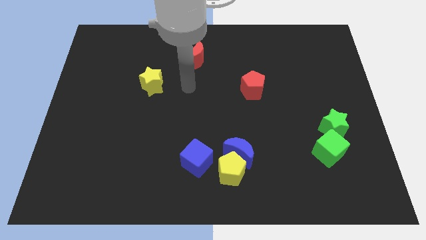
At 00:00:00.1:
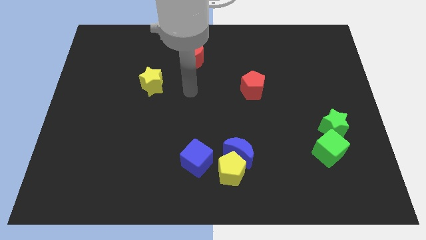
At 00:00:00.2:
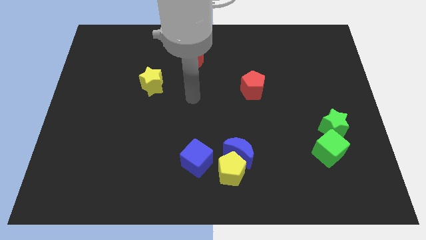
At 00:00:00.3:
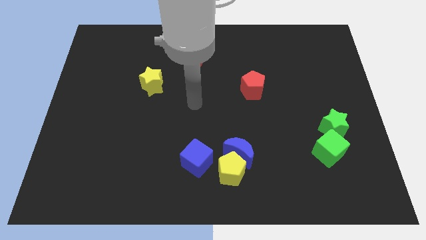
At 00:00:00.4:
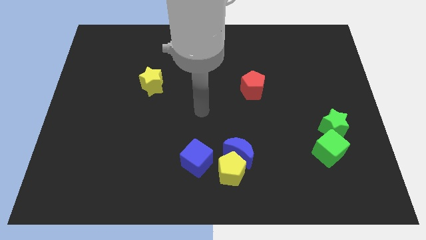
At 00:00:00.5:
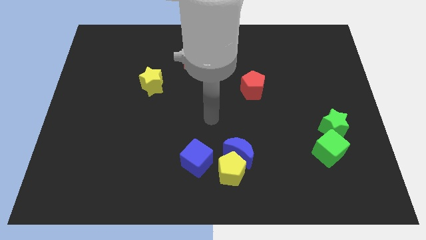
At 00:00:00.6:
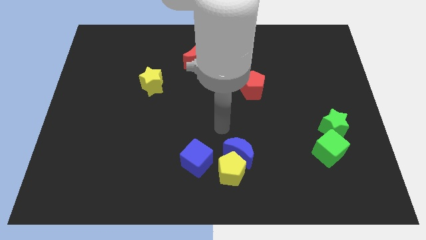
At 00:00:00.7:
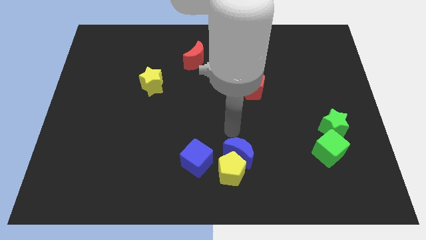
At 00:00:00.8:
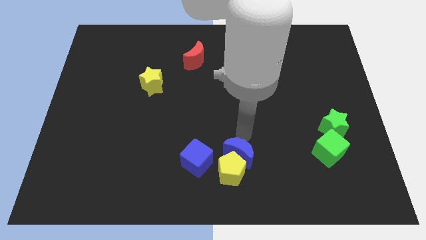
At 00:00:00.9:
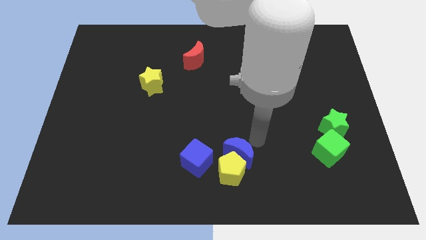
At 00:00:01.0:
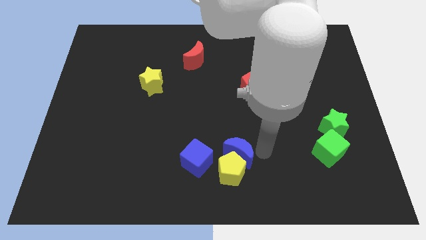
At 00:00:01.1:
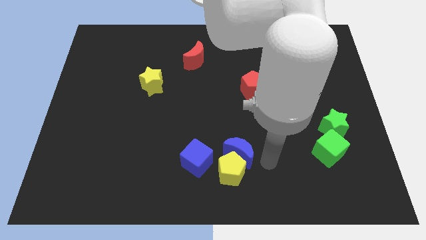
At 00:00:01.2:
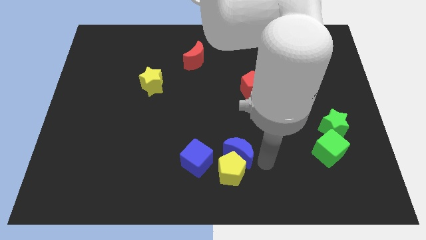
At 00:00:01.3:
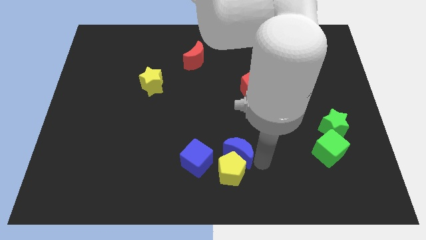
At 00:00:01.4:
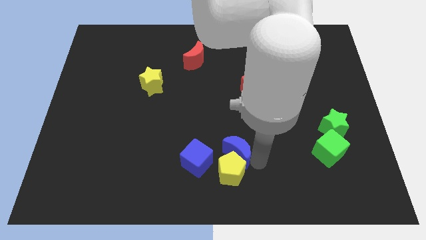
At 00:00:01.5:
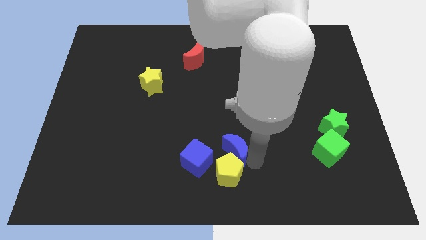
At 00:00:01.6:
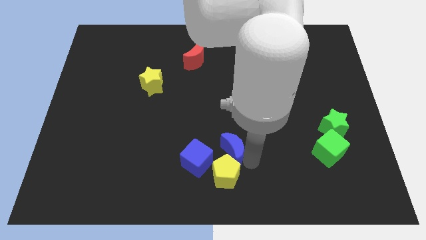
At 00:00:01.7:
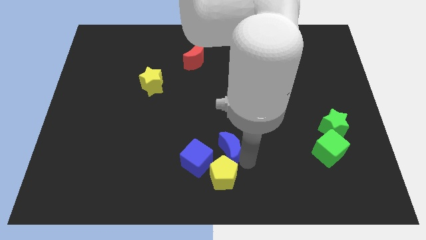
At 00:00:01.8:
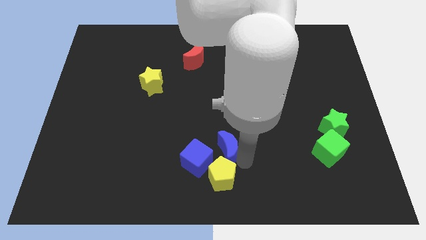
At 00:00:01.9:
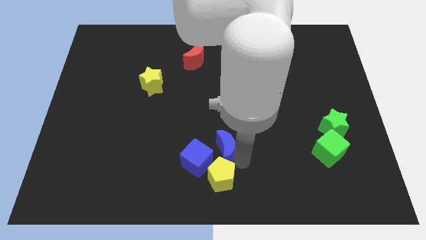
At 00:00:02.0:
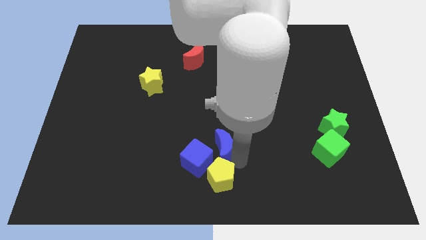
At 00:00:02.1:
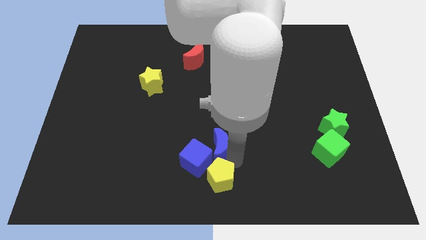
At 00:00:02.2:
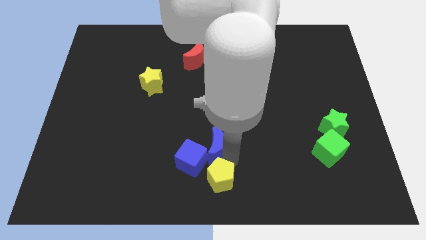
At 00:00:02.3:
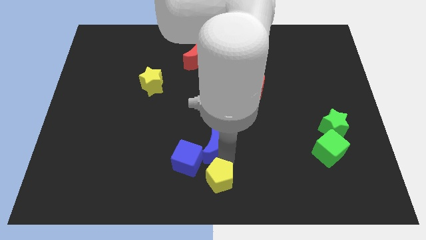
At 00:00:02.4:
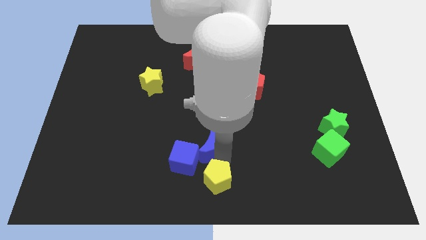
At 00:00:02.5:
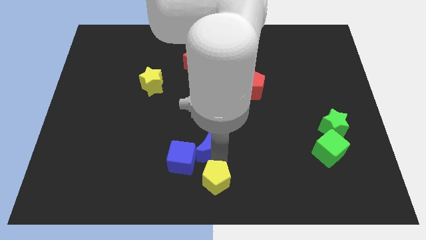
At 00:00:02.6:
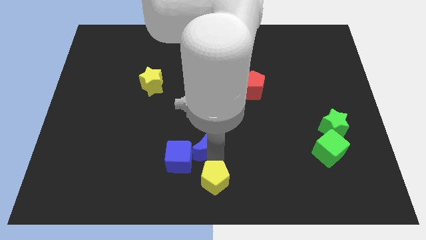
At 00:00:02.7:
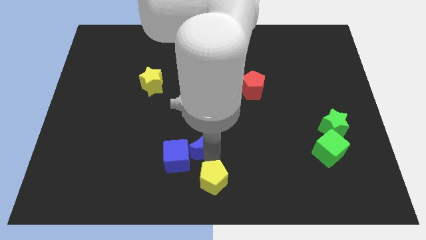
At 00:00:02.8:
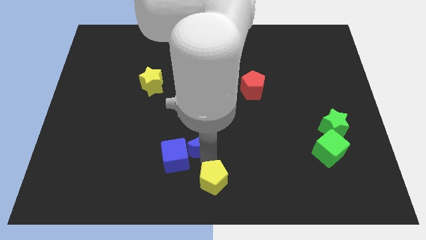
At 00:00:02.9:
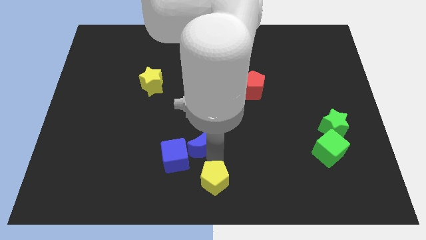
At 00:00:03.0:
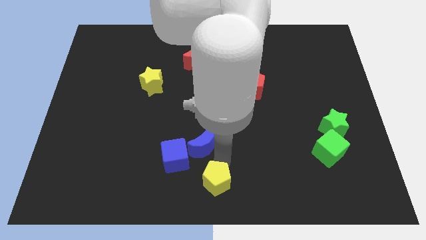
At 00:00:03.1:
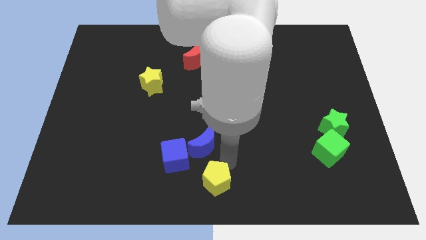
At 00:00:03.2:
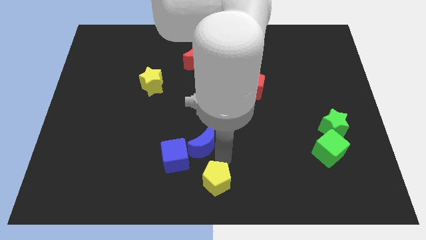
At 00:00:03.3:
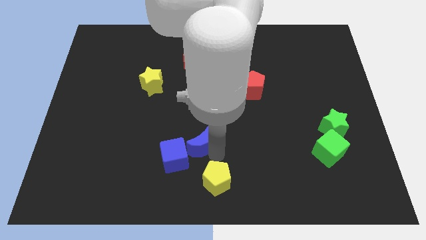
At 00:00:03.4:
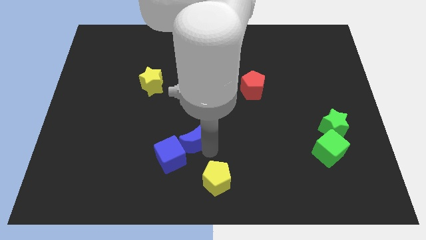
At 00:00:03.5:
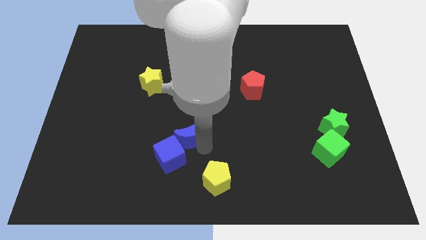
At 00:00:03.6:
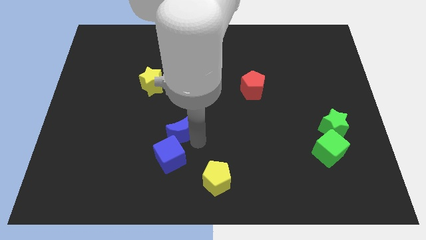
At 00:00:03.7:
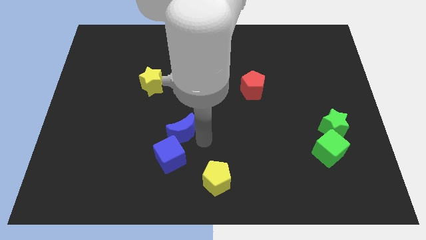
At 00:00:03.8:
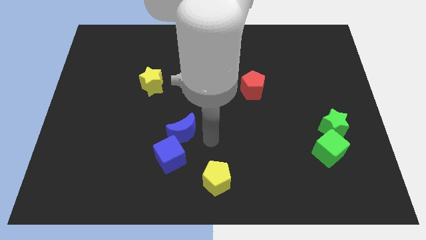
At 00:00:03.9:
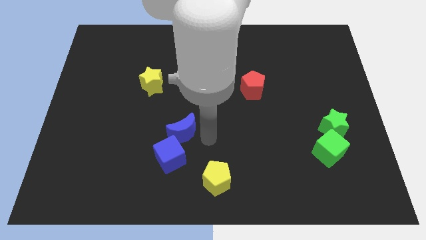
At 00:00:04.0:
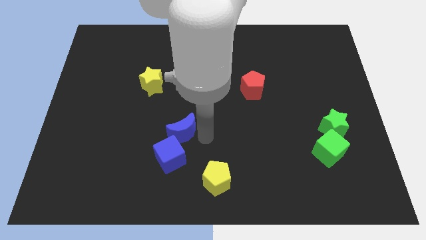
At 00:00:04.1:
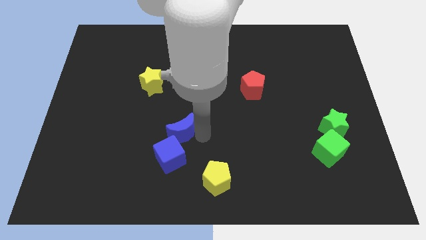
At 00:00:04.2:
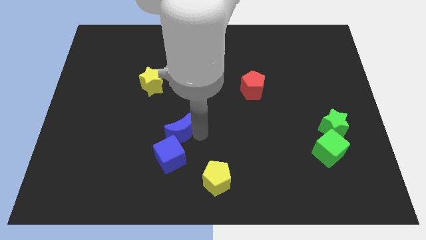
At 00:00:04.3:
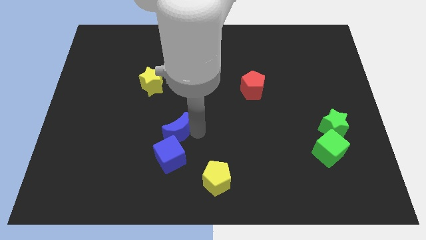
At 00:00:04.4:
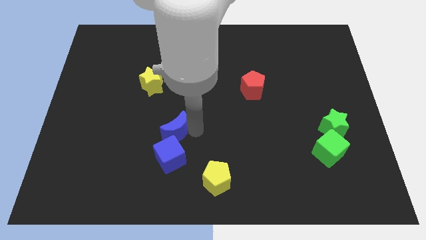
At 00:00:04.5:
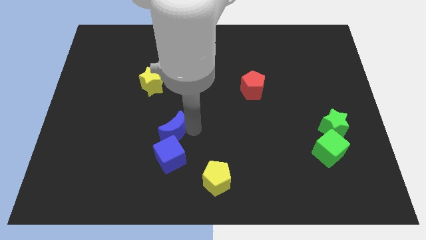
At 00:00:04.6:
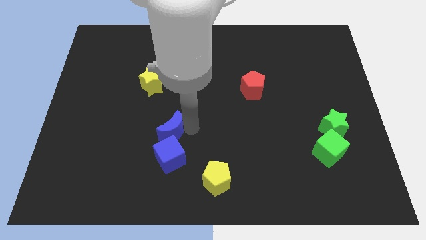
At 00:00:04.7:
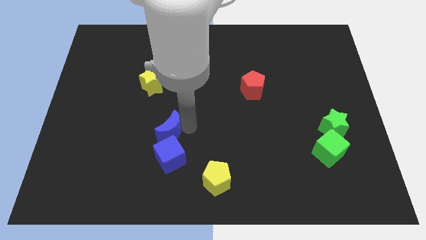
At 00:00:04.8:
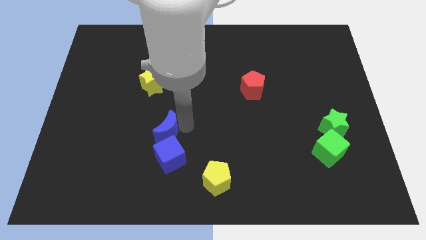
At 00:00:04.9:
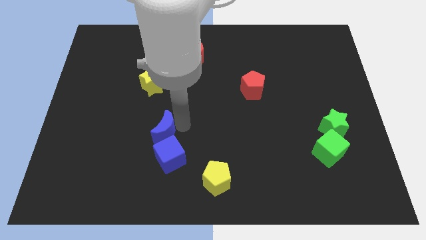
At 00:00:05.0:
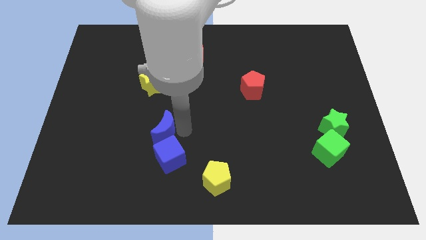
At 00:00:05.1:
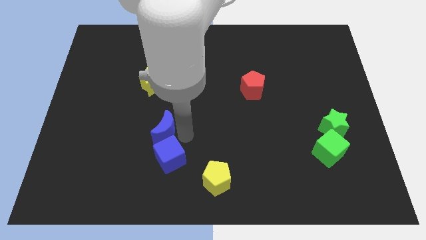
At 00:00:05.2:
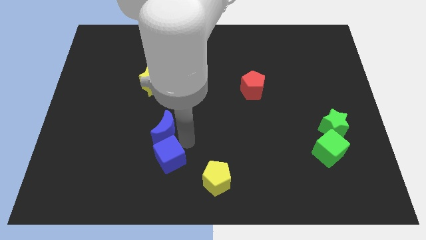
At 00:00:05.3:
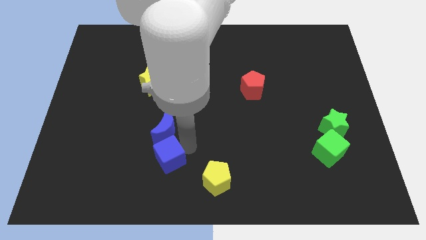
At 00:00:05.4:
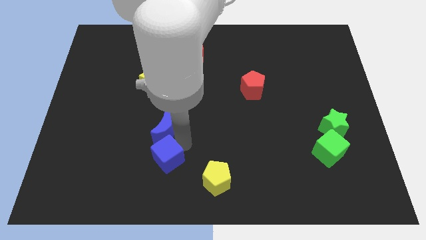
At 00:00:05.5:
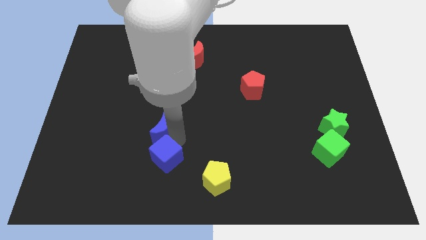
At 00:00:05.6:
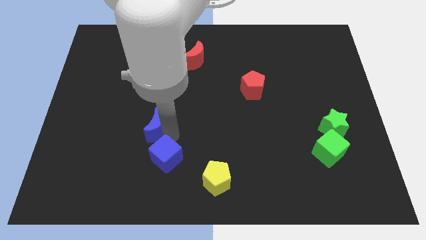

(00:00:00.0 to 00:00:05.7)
put the blue moon to the bottom of the yellow star

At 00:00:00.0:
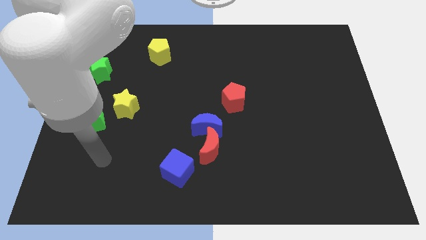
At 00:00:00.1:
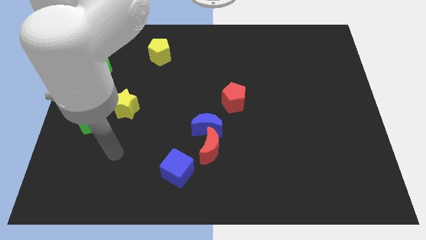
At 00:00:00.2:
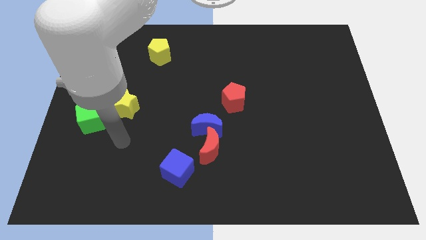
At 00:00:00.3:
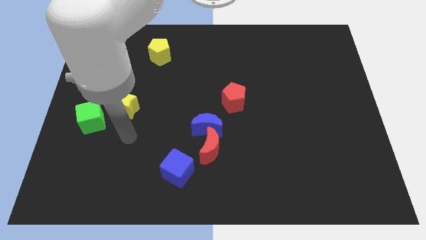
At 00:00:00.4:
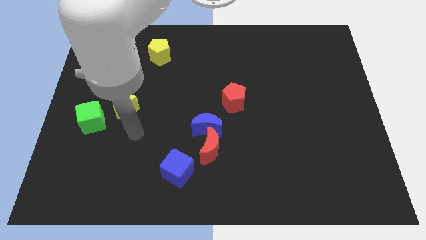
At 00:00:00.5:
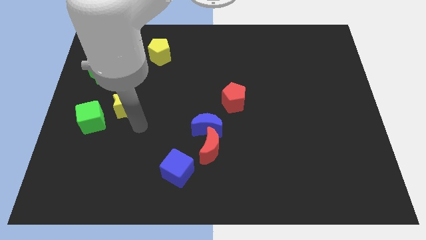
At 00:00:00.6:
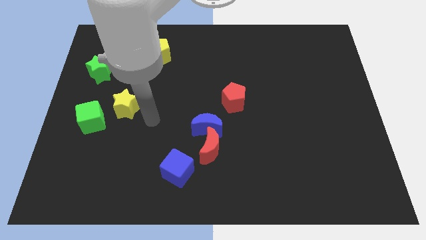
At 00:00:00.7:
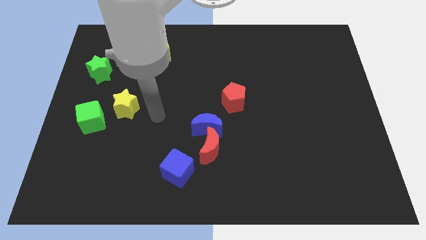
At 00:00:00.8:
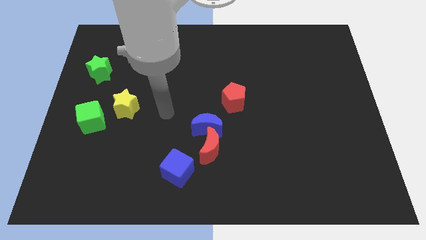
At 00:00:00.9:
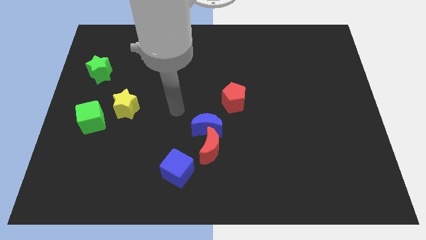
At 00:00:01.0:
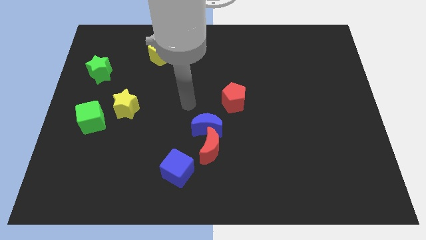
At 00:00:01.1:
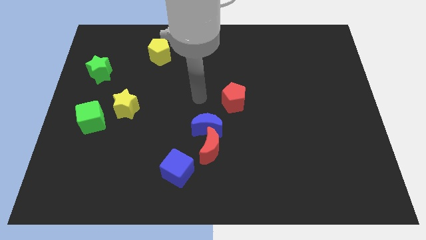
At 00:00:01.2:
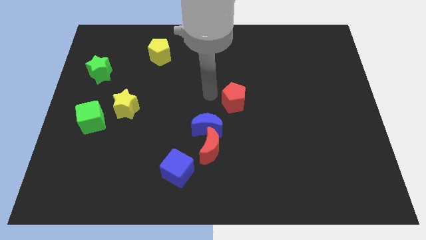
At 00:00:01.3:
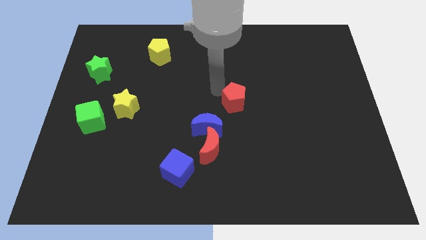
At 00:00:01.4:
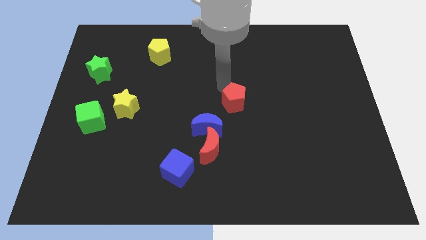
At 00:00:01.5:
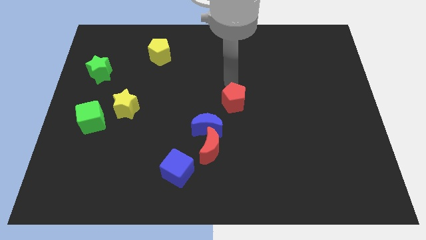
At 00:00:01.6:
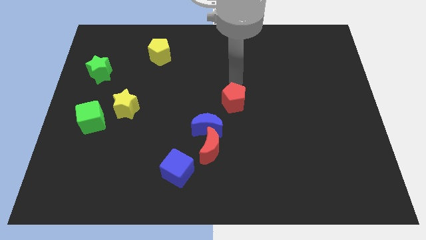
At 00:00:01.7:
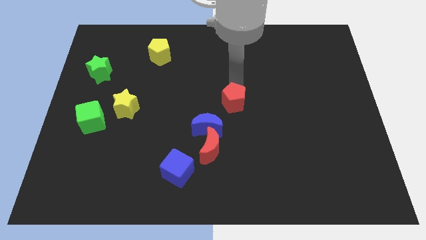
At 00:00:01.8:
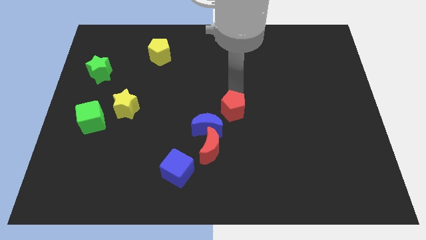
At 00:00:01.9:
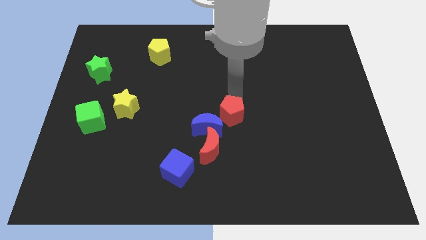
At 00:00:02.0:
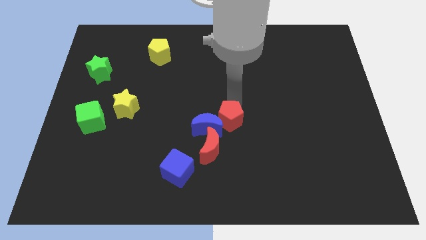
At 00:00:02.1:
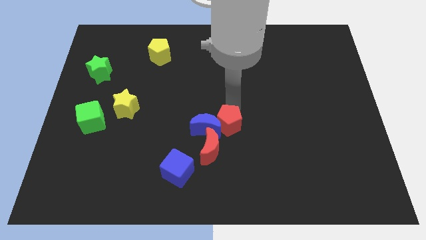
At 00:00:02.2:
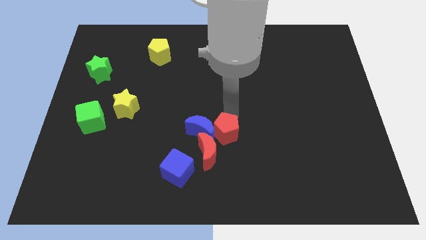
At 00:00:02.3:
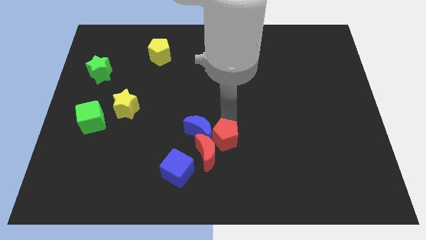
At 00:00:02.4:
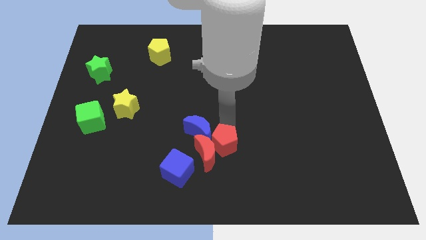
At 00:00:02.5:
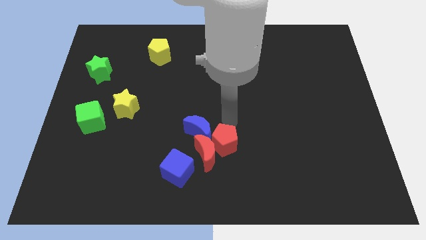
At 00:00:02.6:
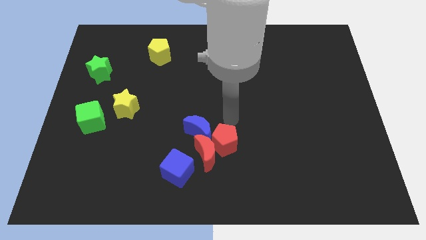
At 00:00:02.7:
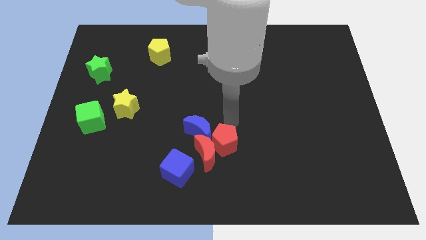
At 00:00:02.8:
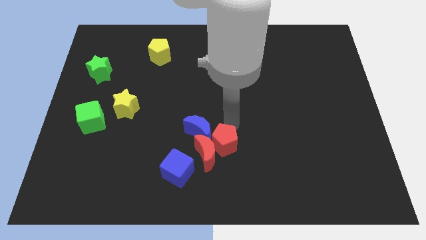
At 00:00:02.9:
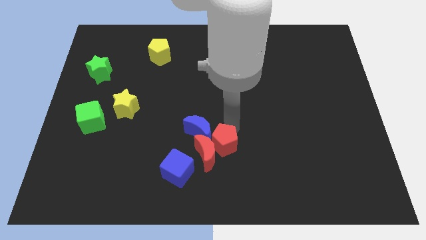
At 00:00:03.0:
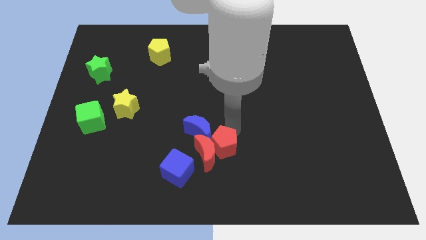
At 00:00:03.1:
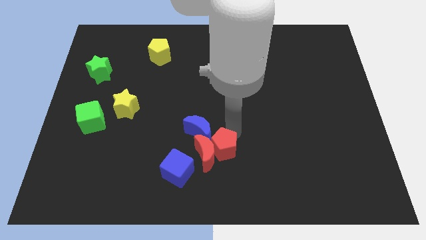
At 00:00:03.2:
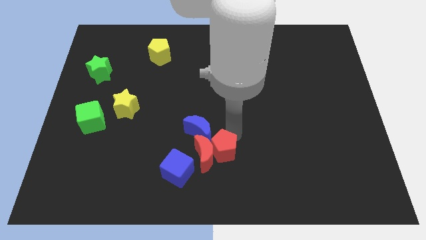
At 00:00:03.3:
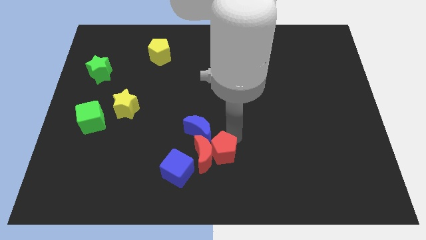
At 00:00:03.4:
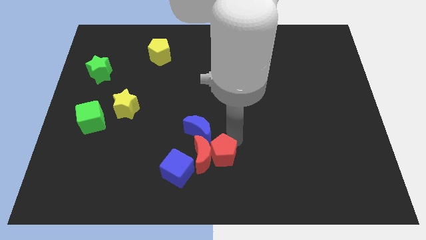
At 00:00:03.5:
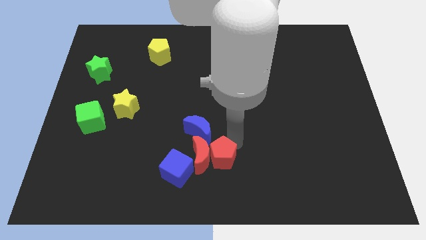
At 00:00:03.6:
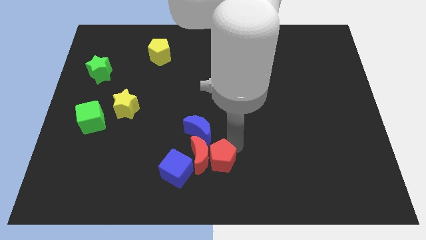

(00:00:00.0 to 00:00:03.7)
put the red pentagon below the blue moon
